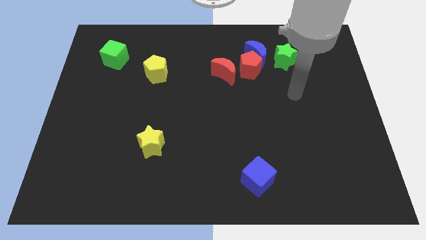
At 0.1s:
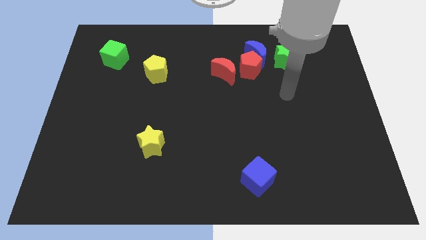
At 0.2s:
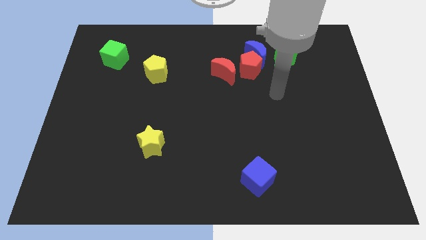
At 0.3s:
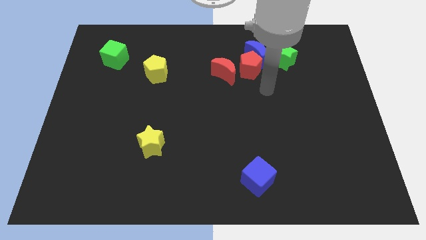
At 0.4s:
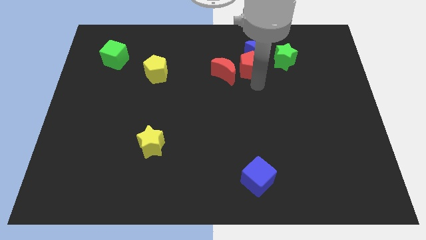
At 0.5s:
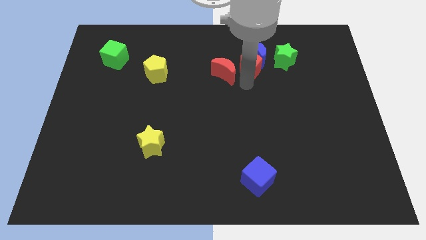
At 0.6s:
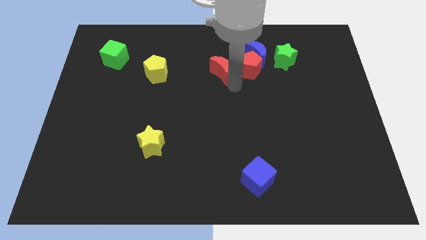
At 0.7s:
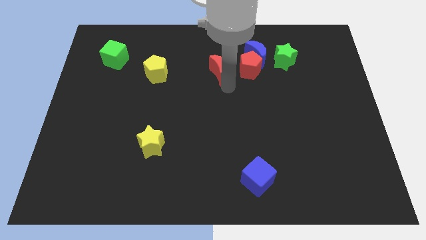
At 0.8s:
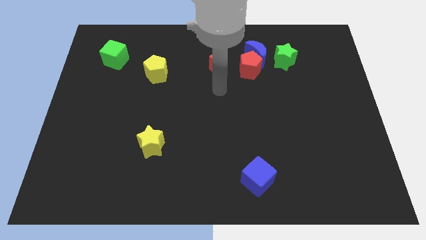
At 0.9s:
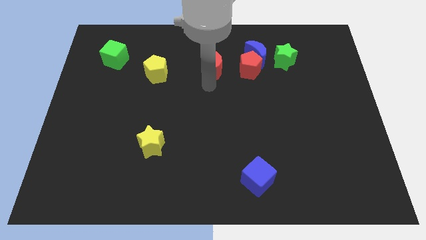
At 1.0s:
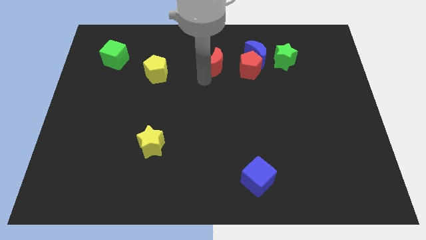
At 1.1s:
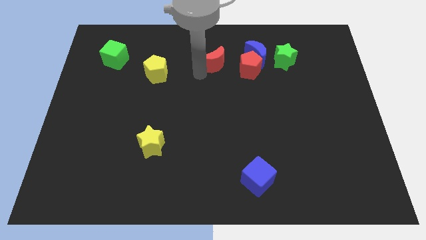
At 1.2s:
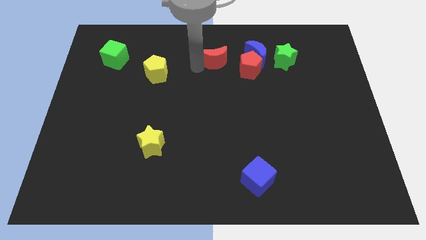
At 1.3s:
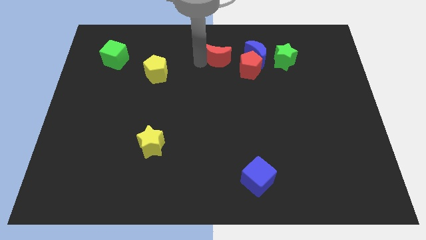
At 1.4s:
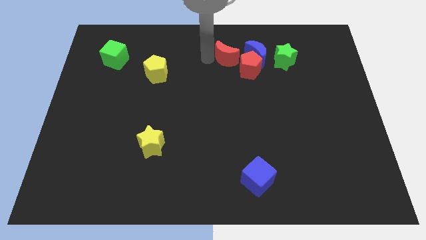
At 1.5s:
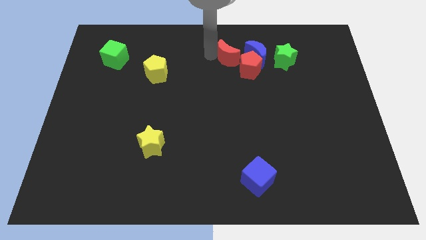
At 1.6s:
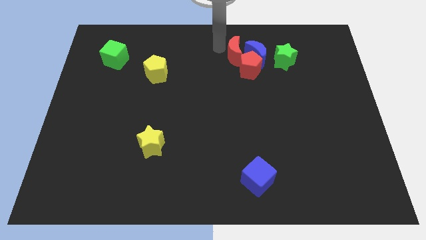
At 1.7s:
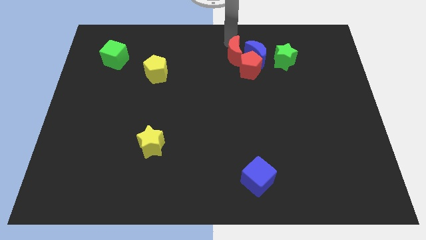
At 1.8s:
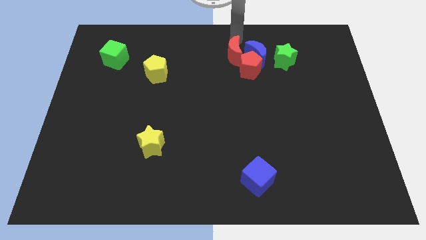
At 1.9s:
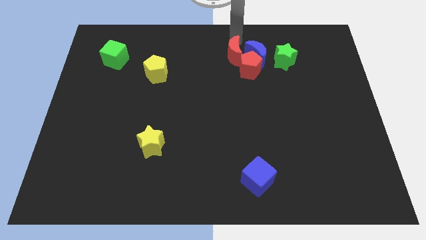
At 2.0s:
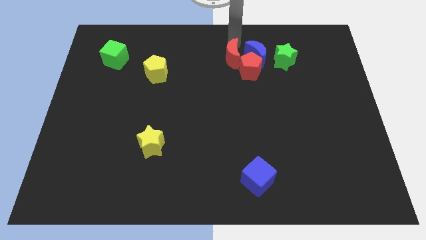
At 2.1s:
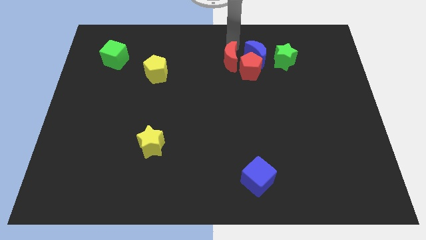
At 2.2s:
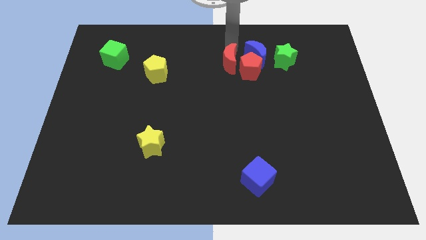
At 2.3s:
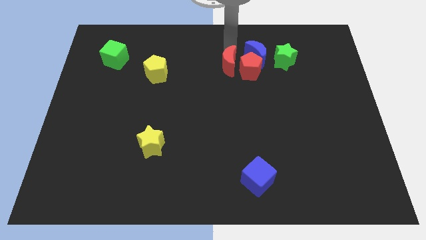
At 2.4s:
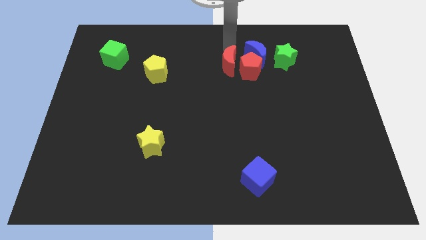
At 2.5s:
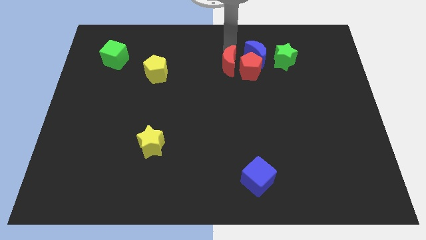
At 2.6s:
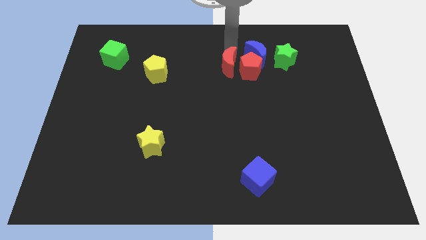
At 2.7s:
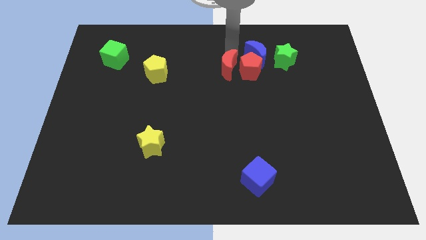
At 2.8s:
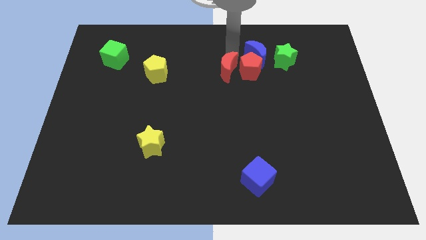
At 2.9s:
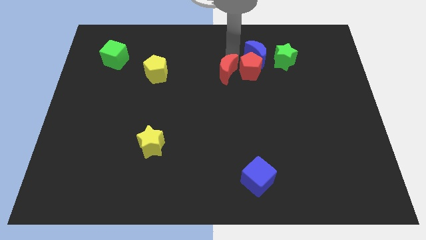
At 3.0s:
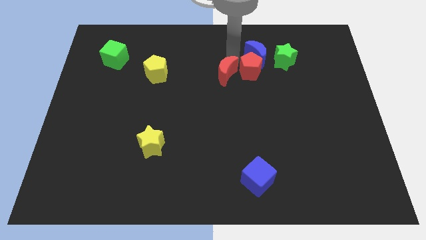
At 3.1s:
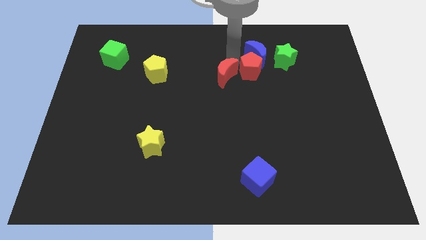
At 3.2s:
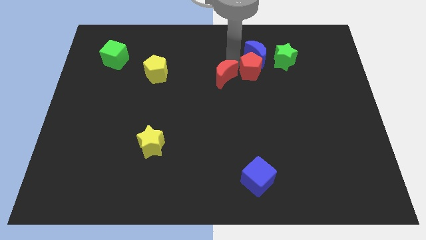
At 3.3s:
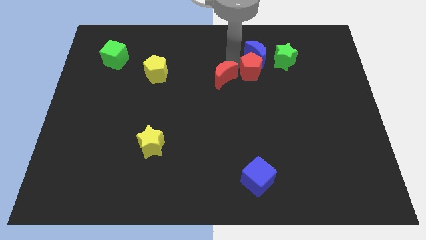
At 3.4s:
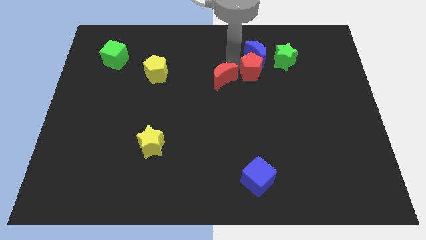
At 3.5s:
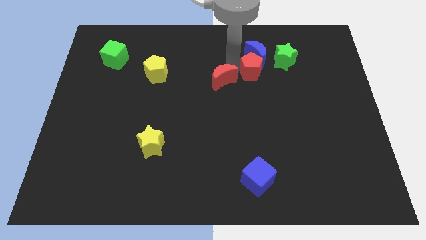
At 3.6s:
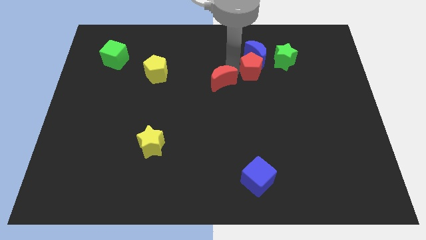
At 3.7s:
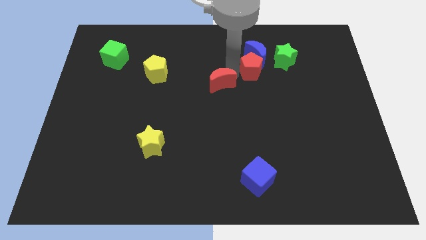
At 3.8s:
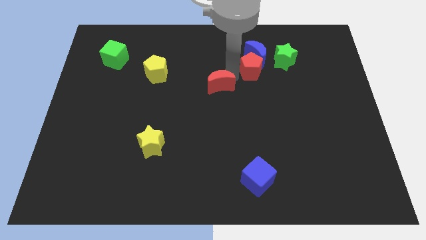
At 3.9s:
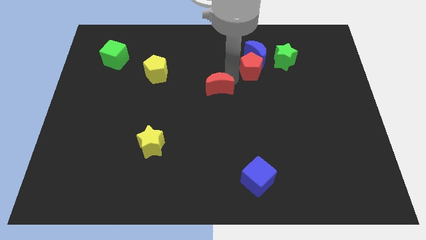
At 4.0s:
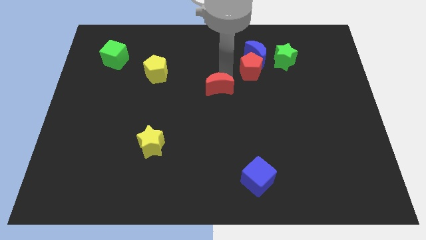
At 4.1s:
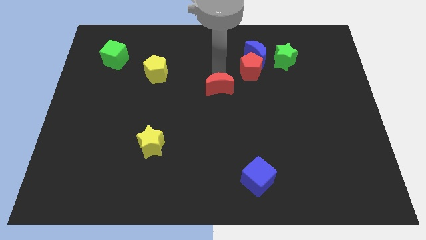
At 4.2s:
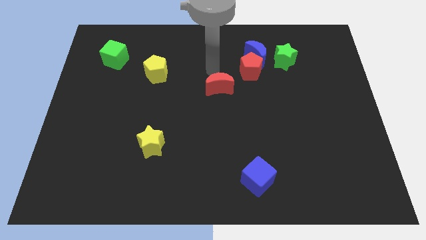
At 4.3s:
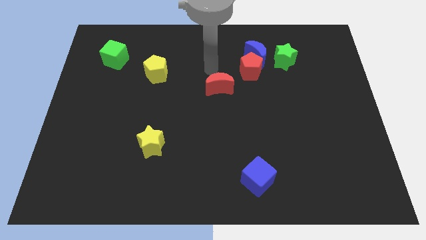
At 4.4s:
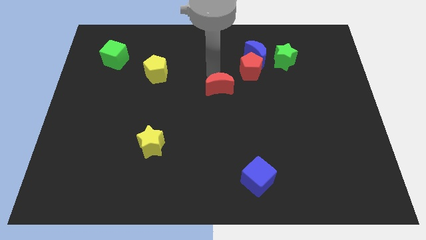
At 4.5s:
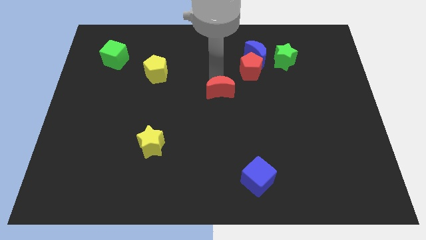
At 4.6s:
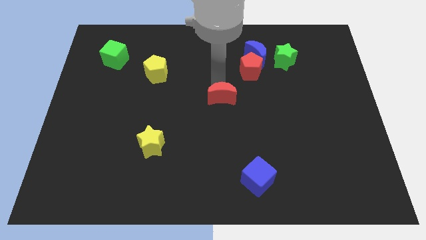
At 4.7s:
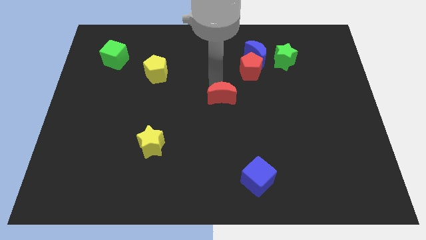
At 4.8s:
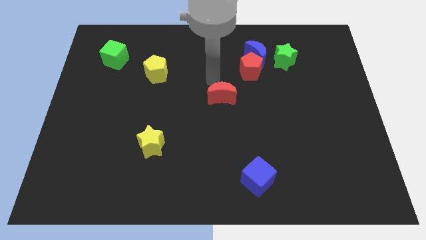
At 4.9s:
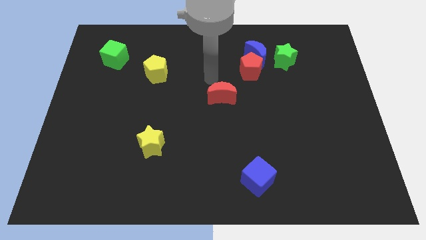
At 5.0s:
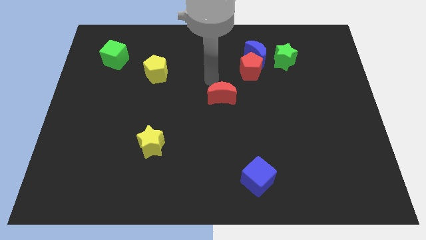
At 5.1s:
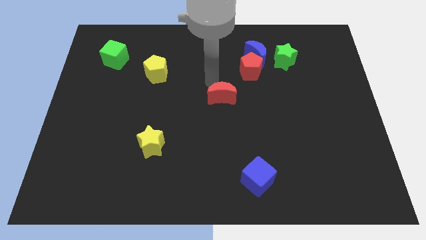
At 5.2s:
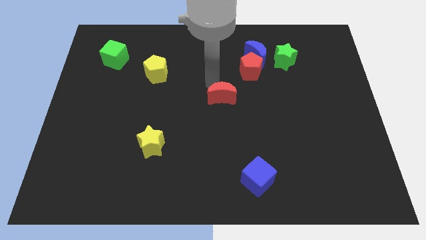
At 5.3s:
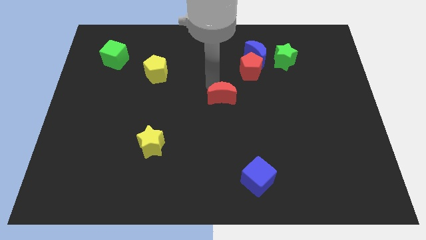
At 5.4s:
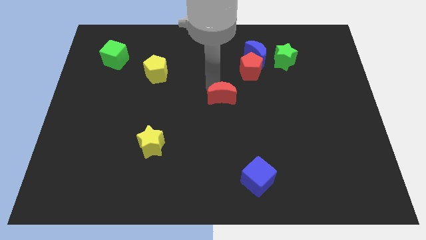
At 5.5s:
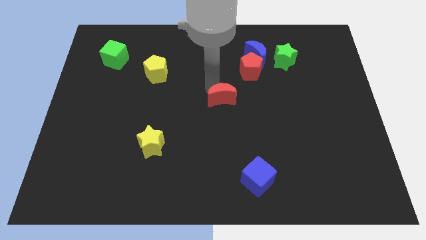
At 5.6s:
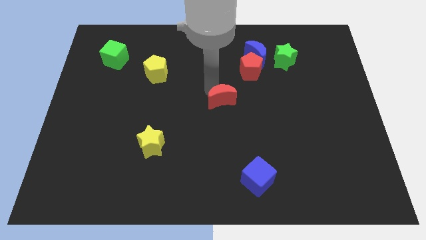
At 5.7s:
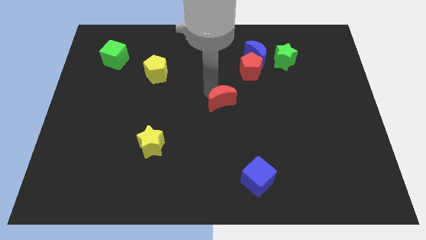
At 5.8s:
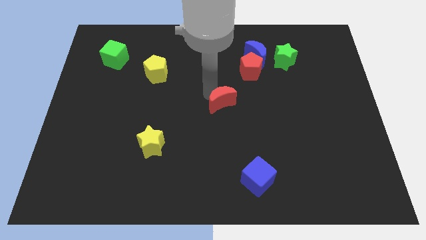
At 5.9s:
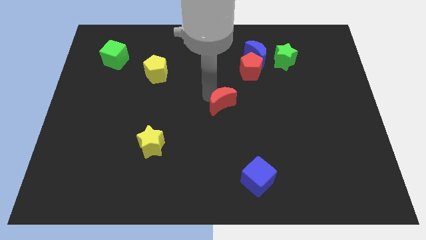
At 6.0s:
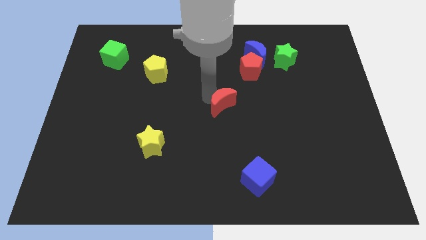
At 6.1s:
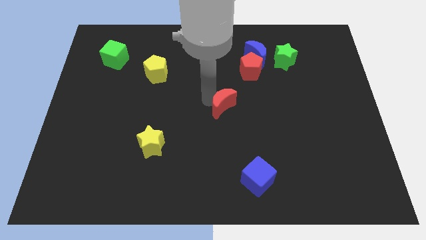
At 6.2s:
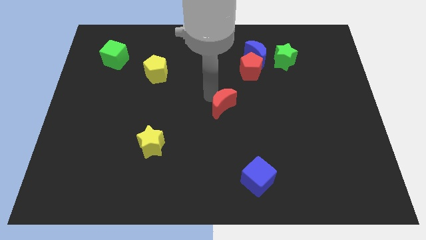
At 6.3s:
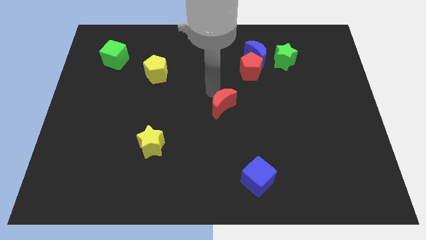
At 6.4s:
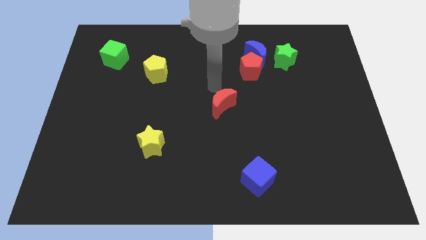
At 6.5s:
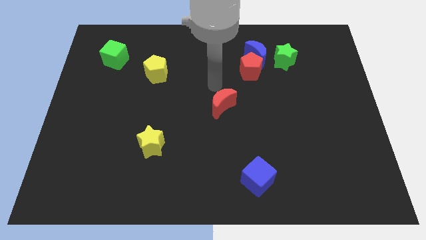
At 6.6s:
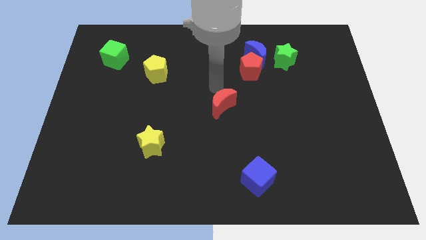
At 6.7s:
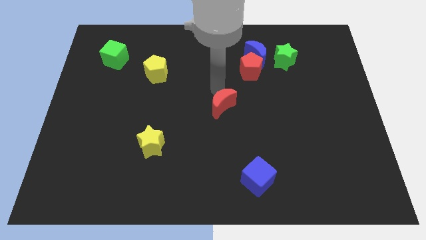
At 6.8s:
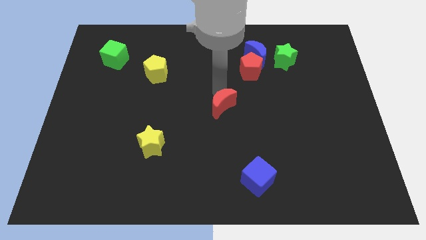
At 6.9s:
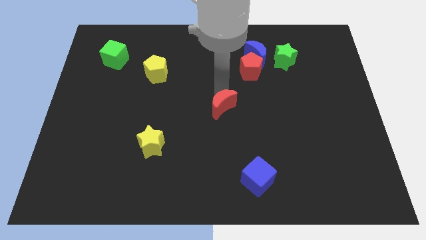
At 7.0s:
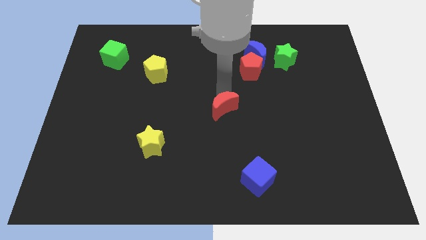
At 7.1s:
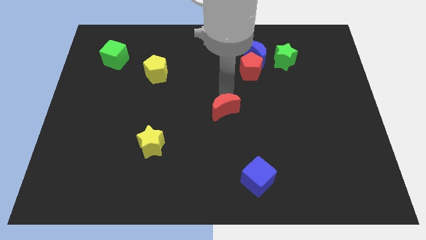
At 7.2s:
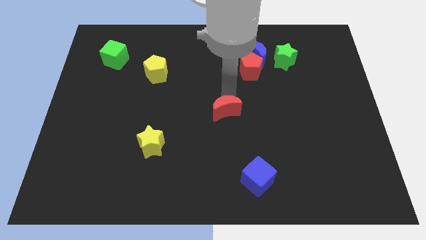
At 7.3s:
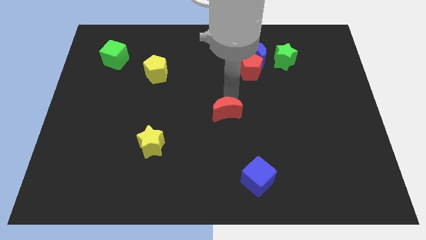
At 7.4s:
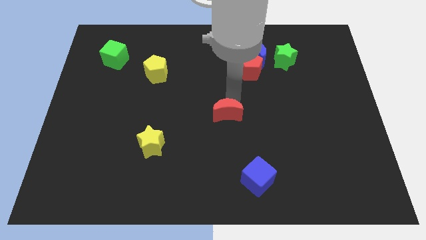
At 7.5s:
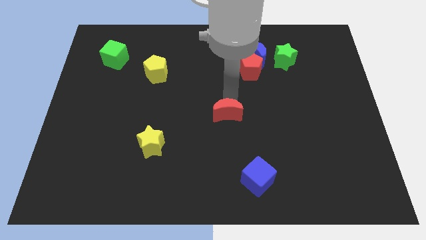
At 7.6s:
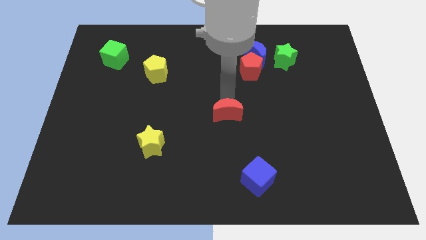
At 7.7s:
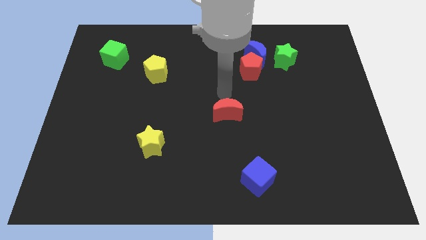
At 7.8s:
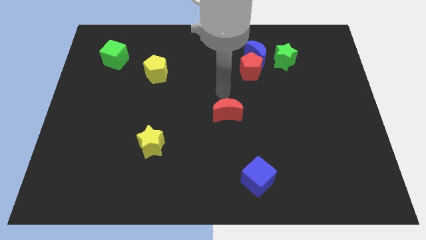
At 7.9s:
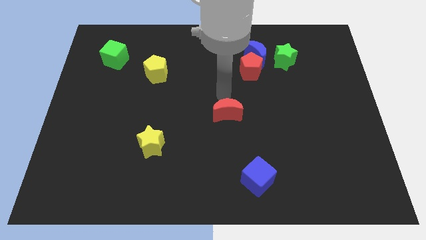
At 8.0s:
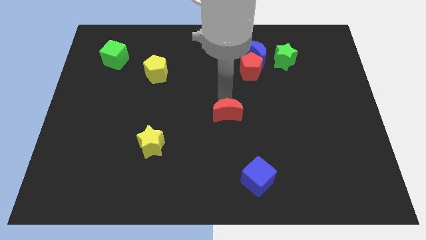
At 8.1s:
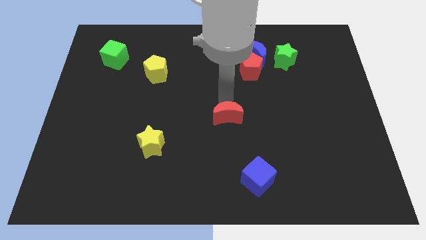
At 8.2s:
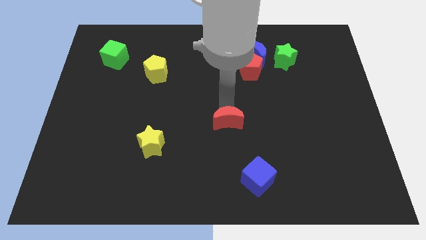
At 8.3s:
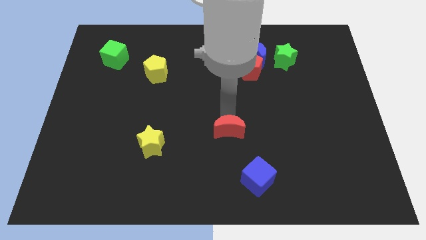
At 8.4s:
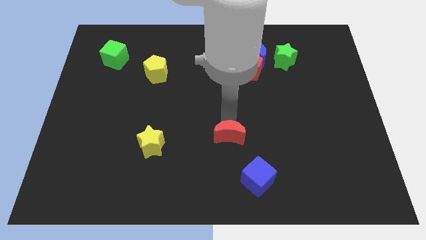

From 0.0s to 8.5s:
slide the red moon to the top left of the blue cube
